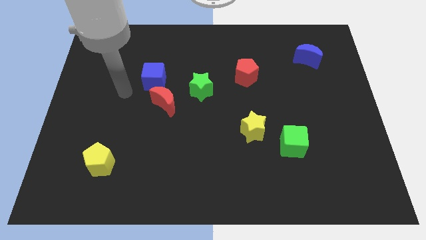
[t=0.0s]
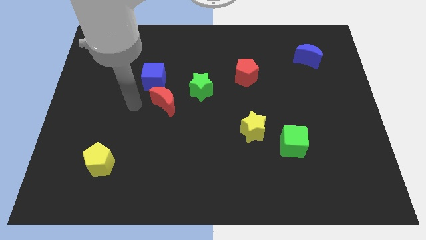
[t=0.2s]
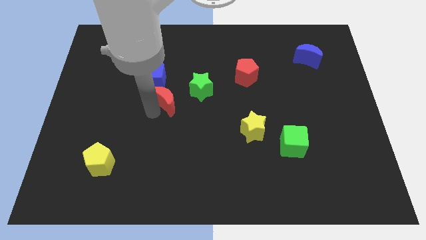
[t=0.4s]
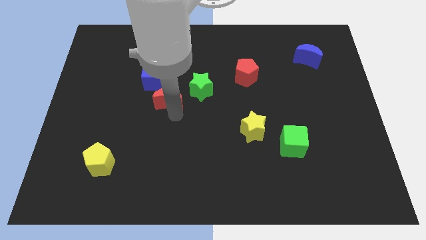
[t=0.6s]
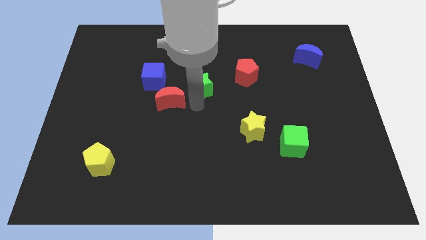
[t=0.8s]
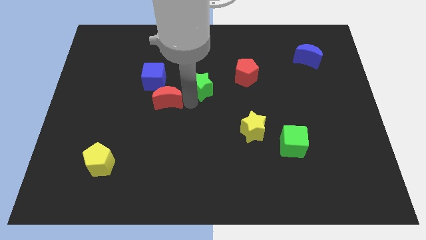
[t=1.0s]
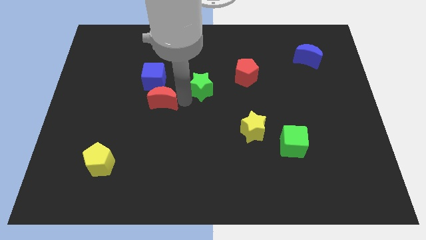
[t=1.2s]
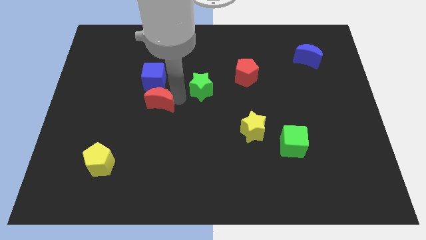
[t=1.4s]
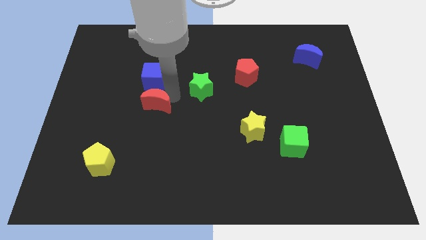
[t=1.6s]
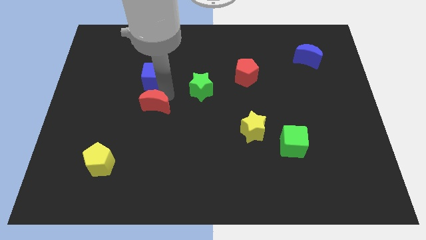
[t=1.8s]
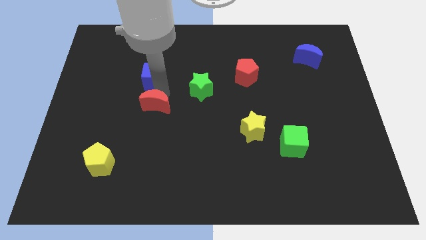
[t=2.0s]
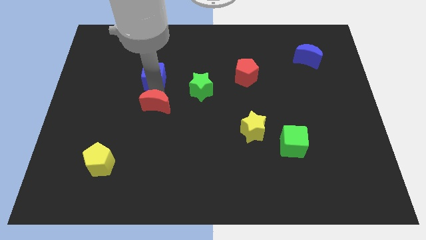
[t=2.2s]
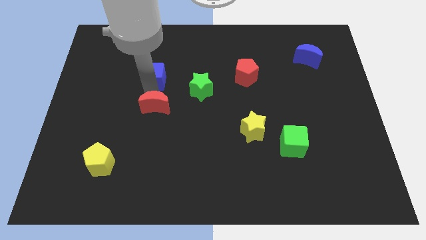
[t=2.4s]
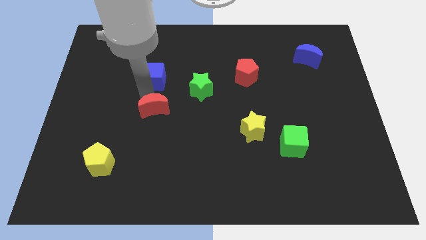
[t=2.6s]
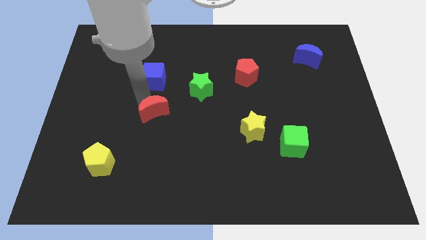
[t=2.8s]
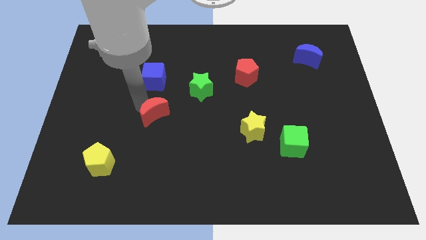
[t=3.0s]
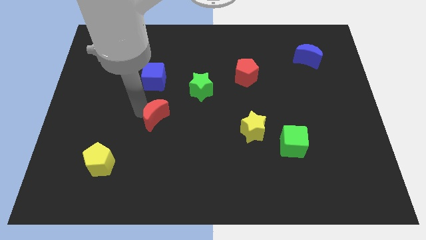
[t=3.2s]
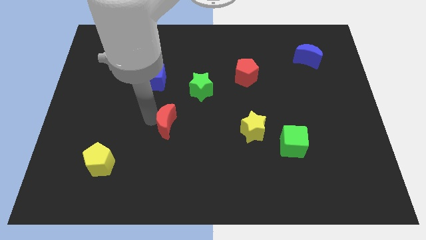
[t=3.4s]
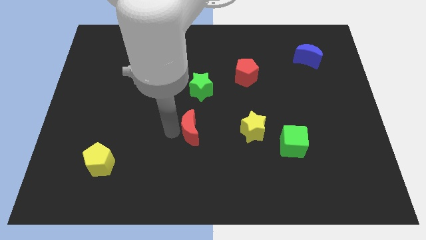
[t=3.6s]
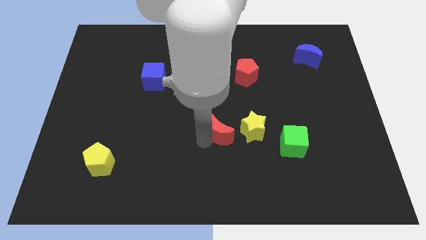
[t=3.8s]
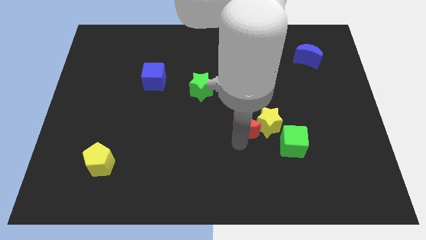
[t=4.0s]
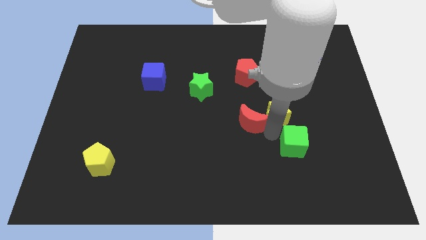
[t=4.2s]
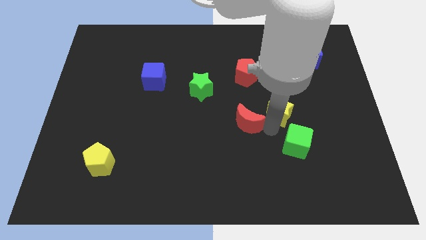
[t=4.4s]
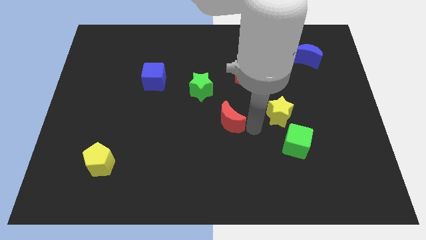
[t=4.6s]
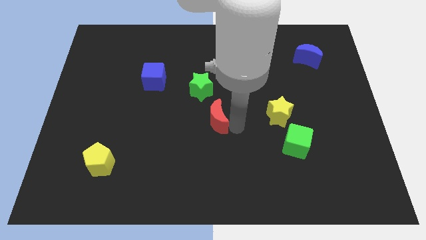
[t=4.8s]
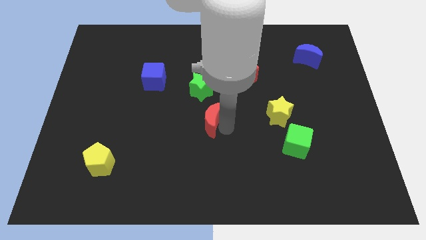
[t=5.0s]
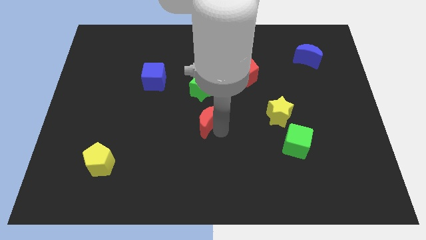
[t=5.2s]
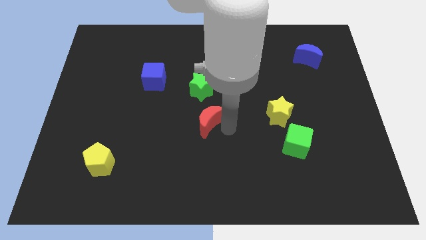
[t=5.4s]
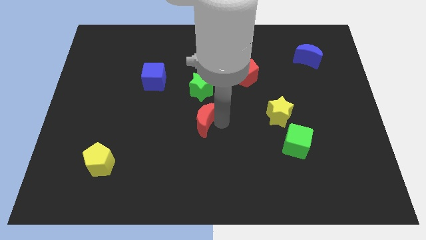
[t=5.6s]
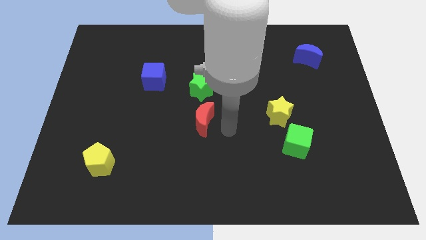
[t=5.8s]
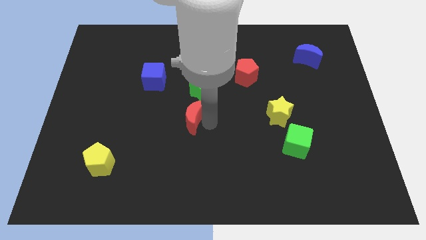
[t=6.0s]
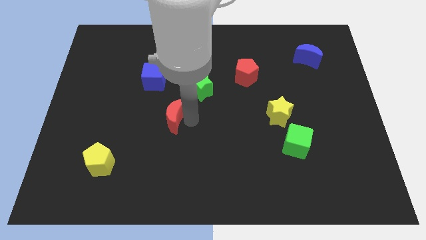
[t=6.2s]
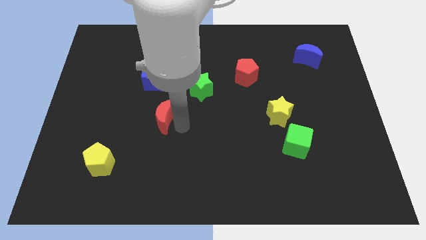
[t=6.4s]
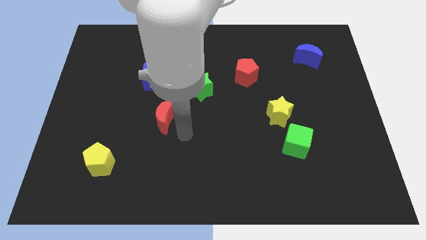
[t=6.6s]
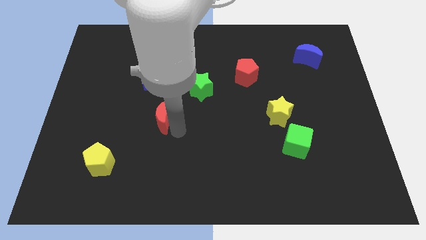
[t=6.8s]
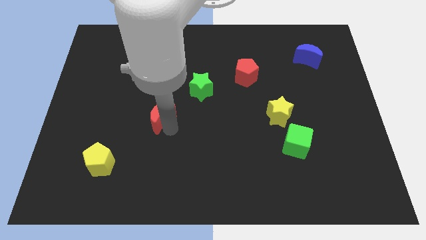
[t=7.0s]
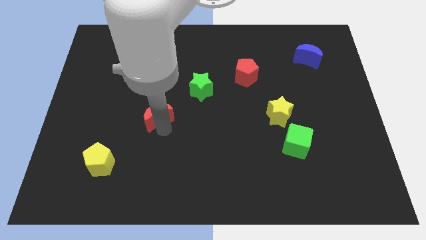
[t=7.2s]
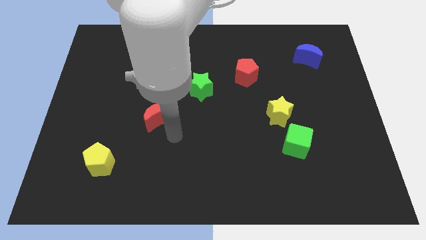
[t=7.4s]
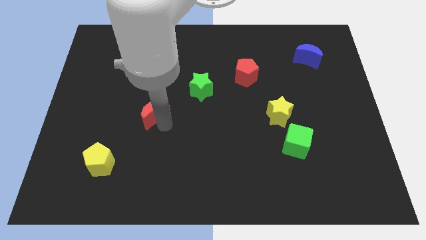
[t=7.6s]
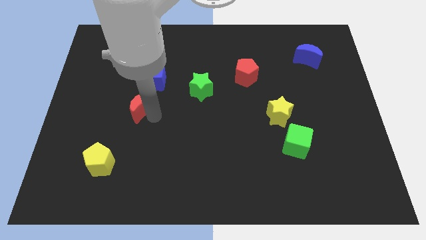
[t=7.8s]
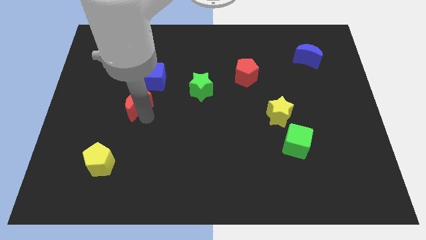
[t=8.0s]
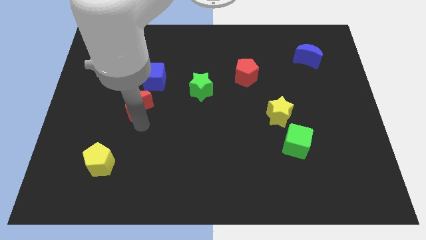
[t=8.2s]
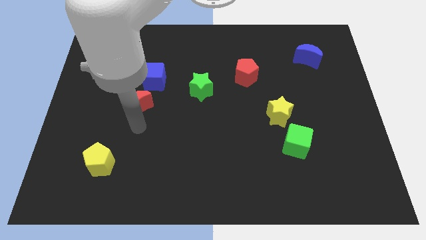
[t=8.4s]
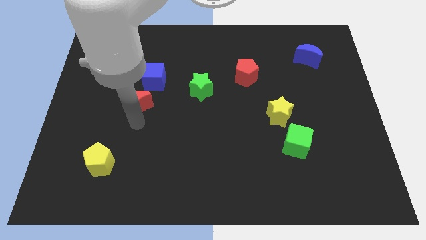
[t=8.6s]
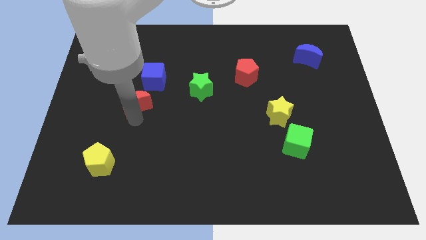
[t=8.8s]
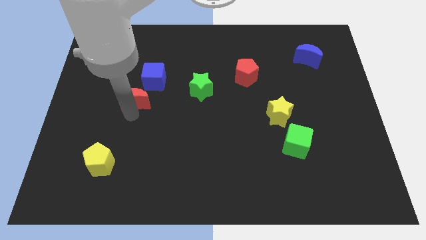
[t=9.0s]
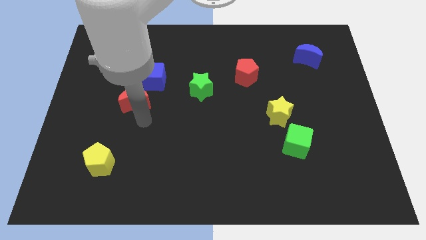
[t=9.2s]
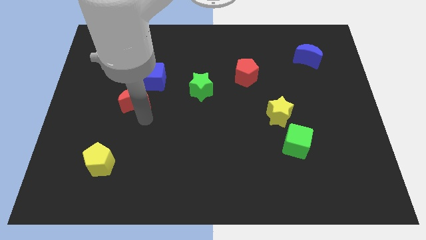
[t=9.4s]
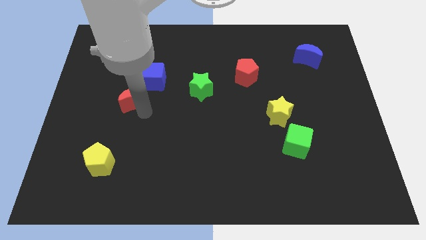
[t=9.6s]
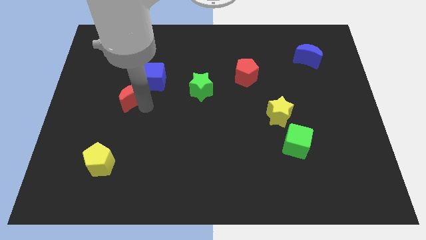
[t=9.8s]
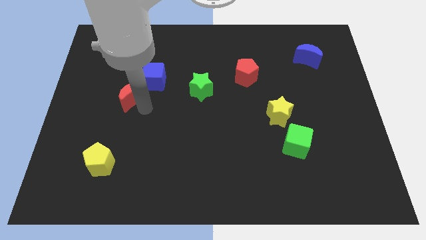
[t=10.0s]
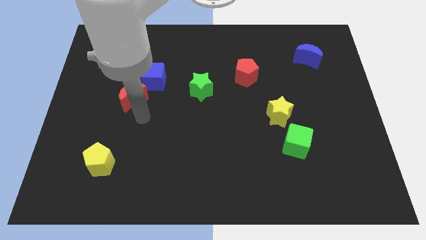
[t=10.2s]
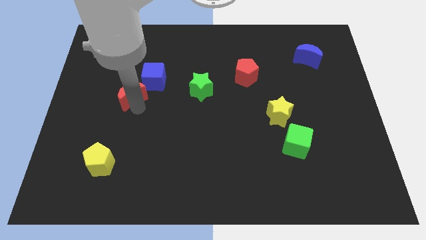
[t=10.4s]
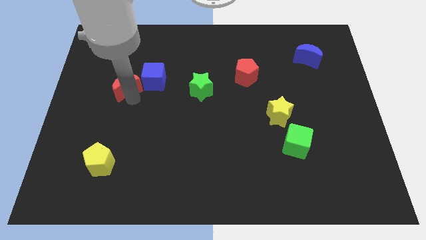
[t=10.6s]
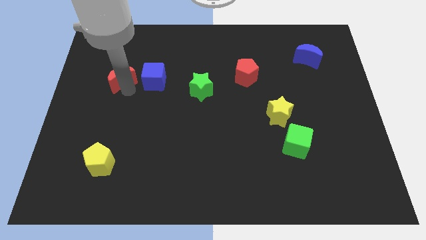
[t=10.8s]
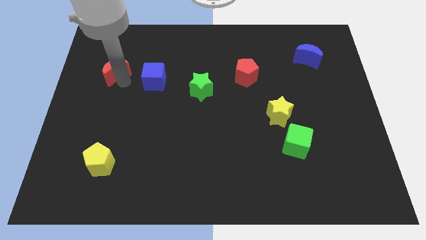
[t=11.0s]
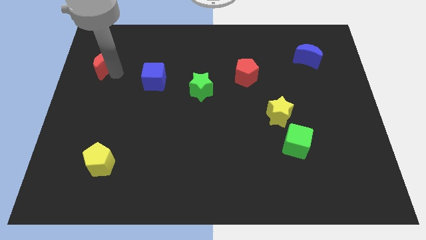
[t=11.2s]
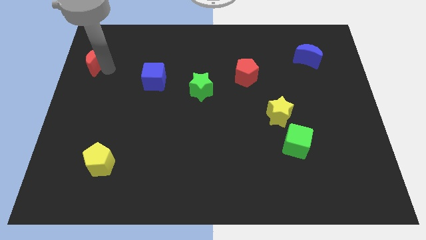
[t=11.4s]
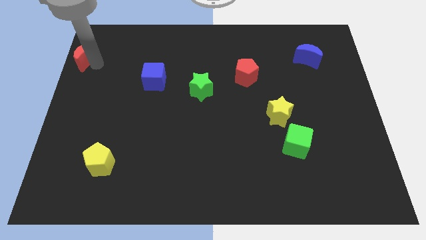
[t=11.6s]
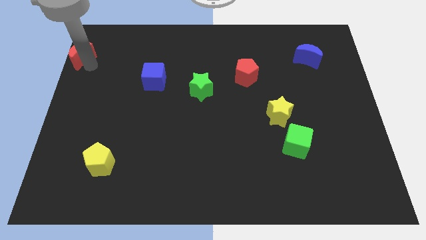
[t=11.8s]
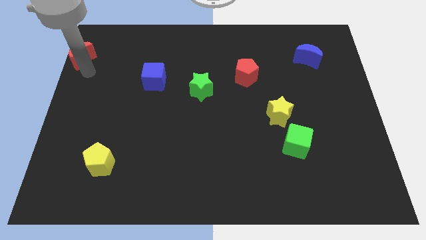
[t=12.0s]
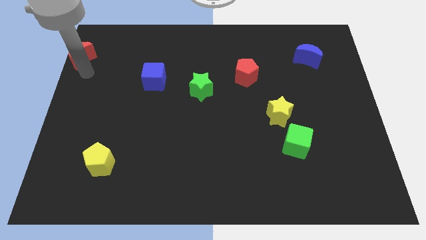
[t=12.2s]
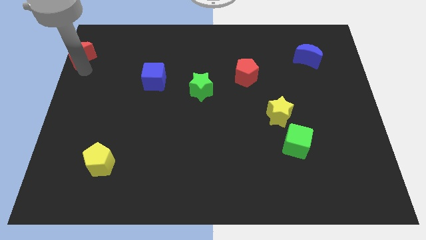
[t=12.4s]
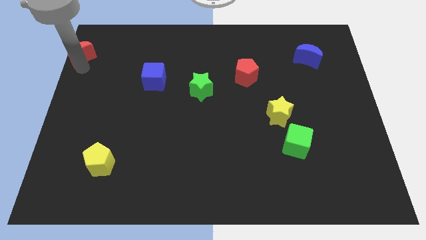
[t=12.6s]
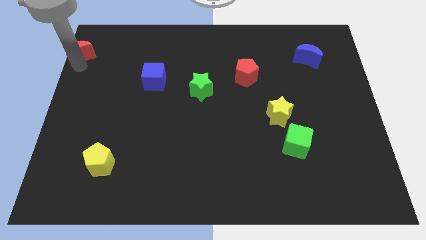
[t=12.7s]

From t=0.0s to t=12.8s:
push the red moon to the top left corner

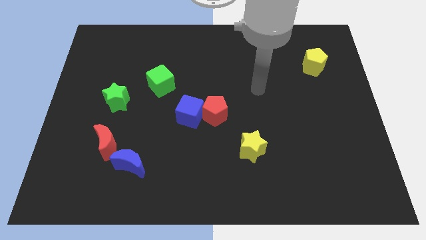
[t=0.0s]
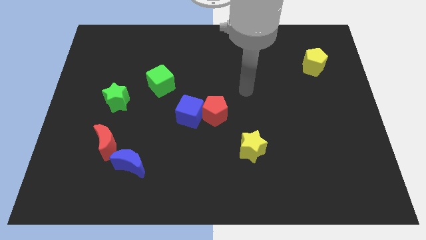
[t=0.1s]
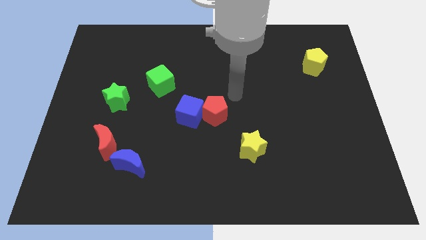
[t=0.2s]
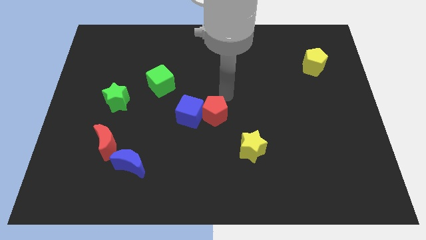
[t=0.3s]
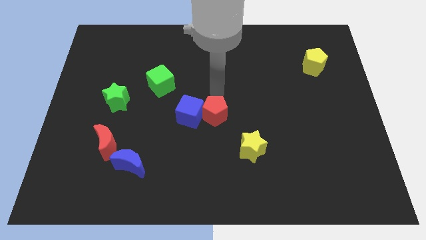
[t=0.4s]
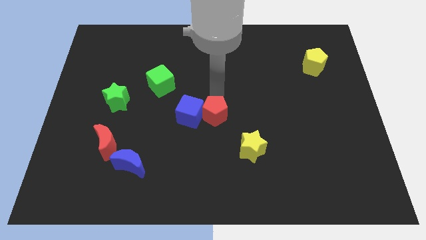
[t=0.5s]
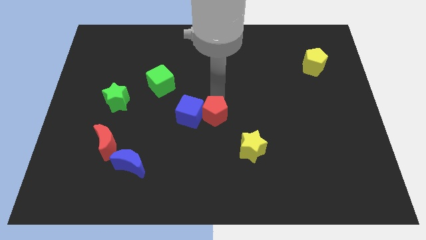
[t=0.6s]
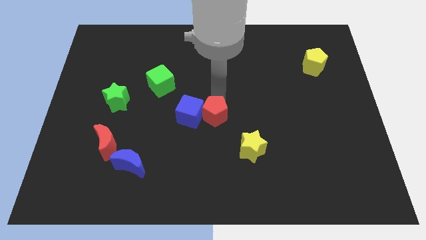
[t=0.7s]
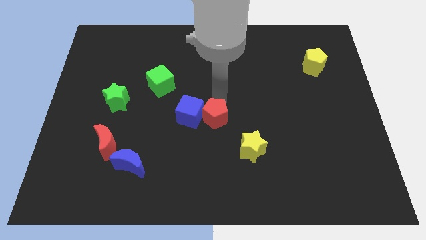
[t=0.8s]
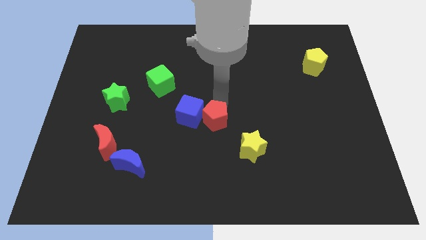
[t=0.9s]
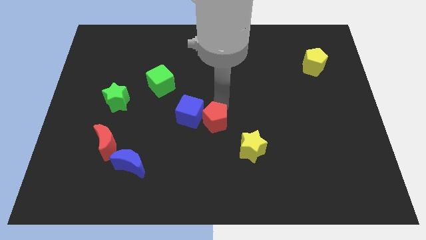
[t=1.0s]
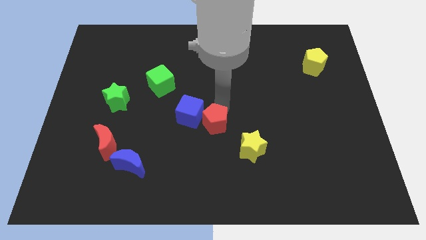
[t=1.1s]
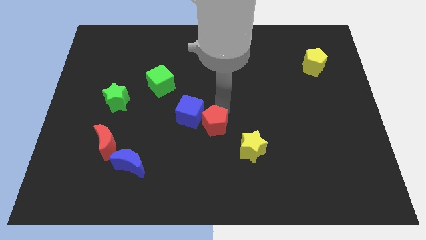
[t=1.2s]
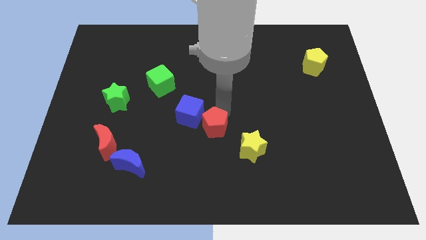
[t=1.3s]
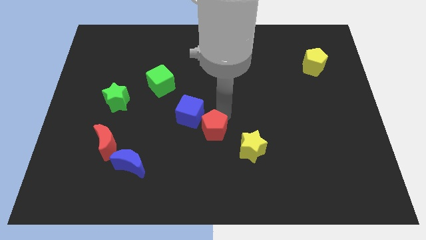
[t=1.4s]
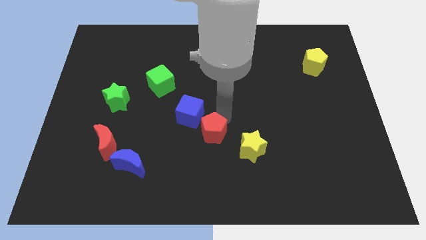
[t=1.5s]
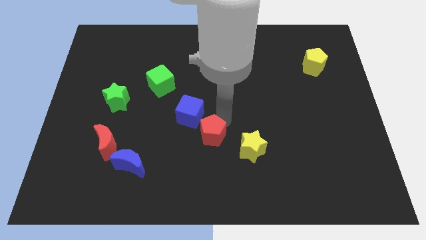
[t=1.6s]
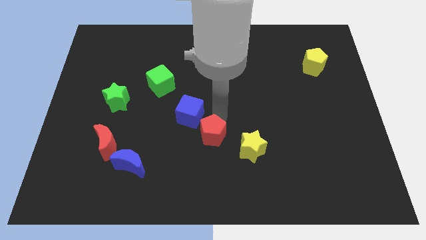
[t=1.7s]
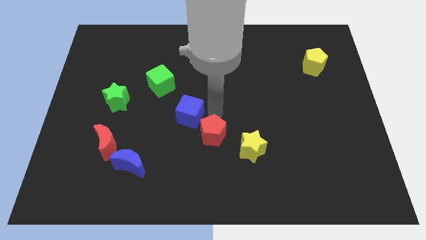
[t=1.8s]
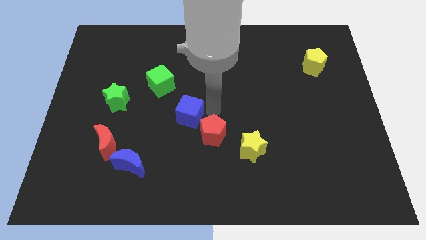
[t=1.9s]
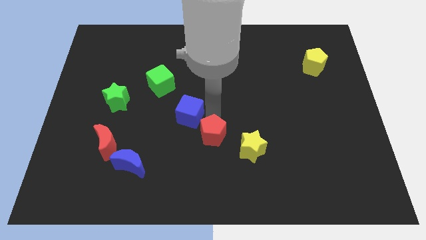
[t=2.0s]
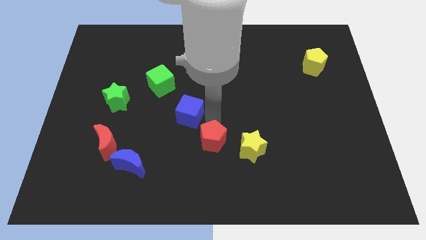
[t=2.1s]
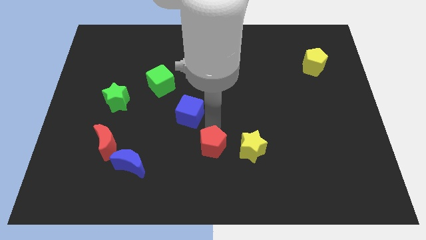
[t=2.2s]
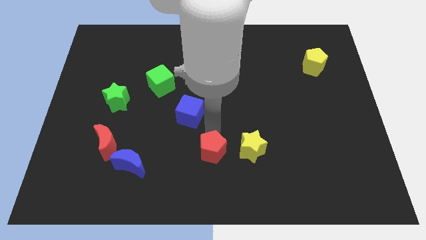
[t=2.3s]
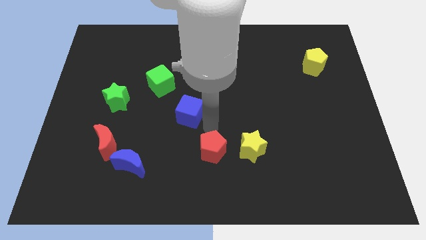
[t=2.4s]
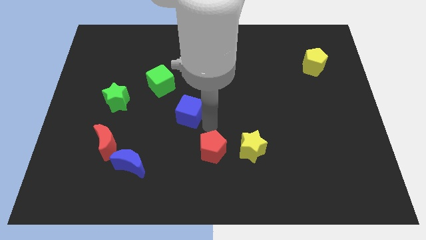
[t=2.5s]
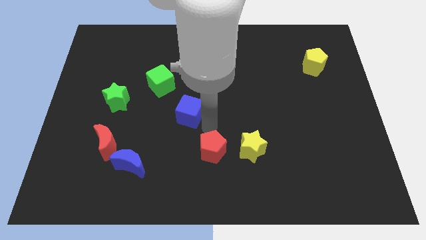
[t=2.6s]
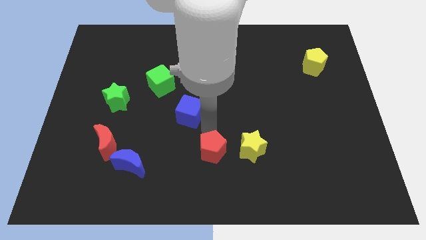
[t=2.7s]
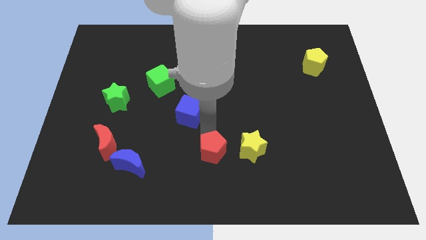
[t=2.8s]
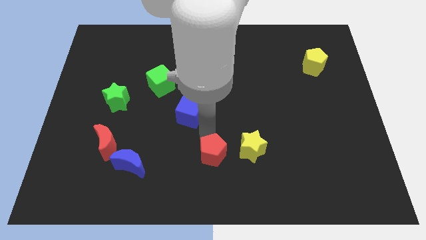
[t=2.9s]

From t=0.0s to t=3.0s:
move the red pentagon to the bottom side
